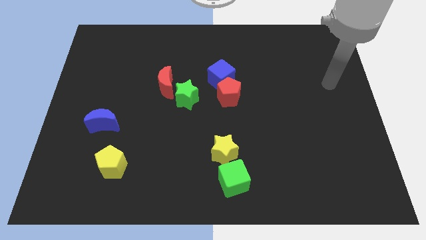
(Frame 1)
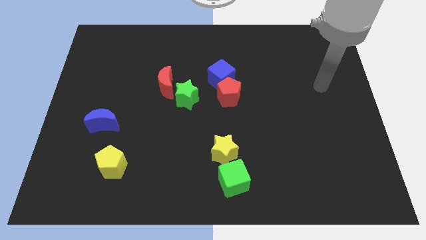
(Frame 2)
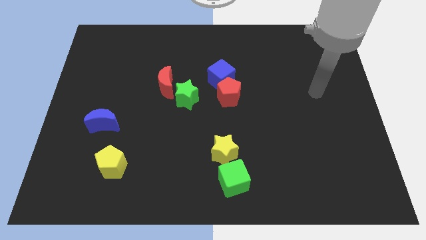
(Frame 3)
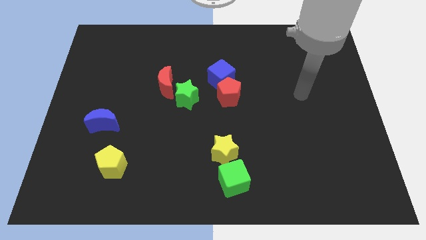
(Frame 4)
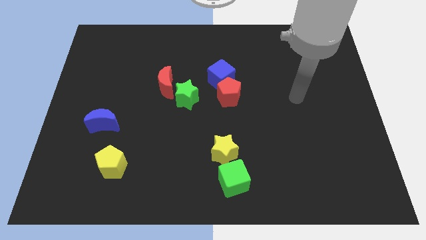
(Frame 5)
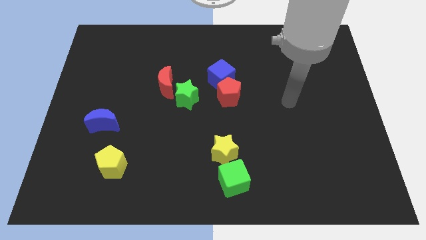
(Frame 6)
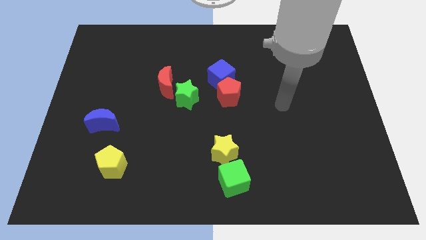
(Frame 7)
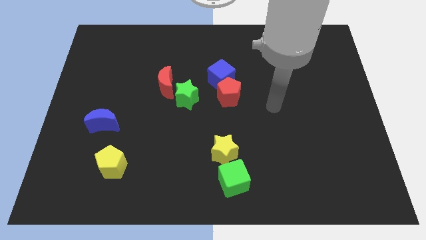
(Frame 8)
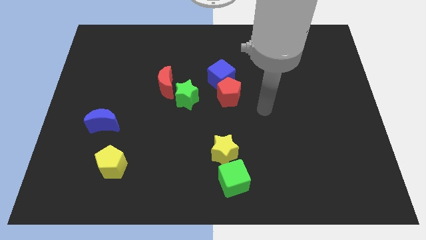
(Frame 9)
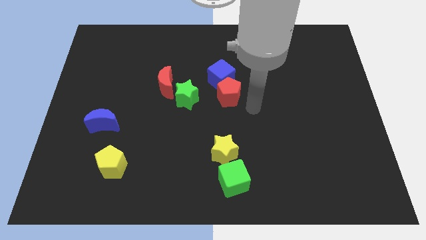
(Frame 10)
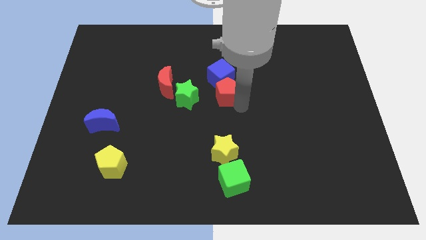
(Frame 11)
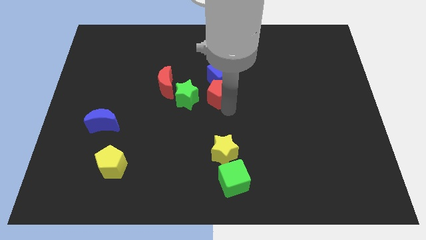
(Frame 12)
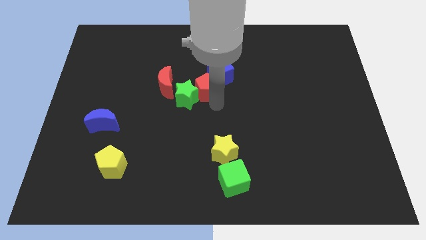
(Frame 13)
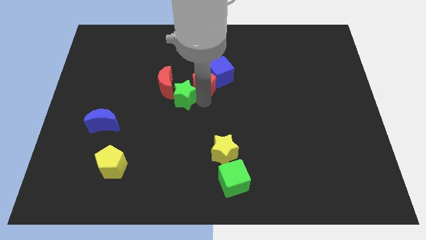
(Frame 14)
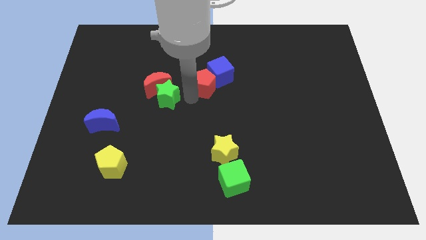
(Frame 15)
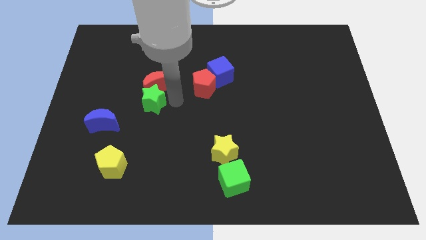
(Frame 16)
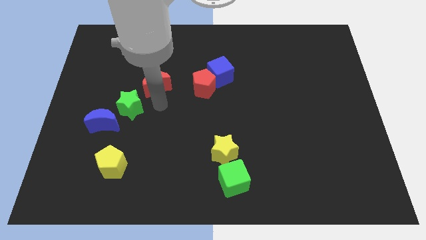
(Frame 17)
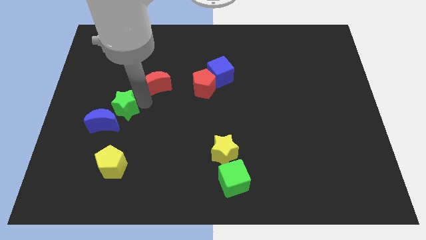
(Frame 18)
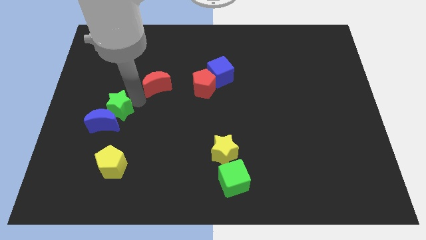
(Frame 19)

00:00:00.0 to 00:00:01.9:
pull the red moon apart from the green star

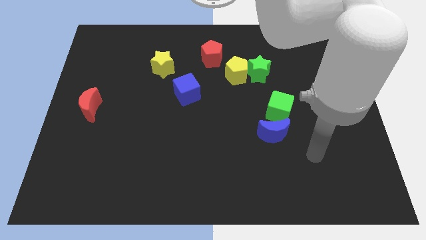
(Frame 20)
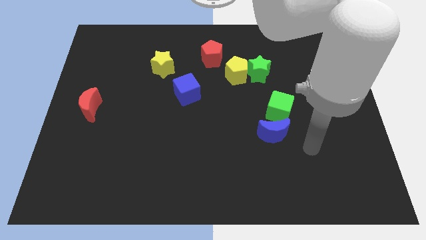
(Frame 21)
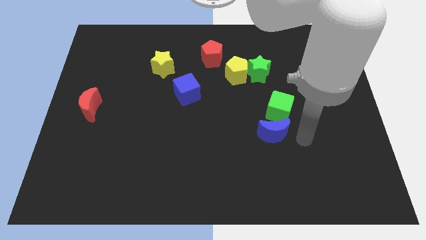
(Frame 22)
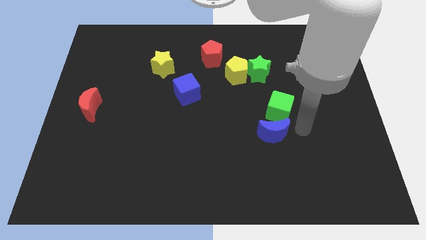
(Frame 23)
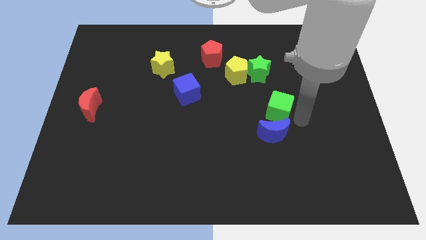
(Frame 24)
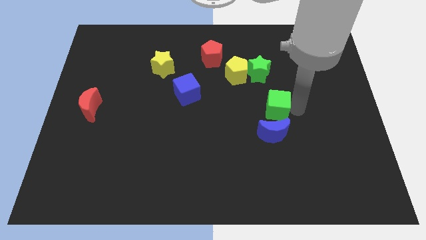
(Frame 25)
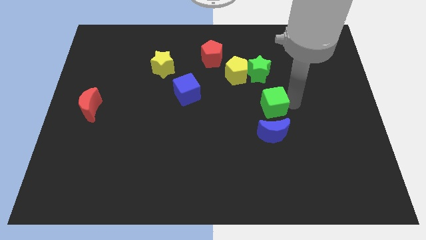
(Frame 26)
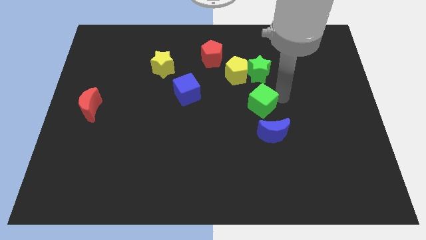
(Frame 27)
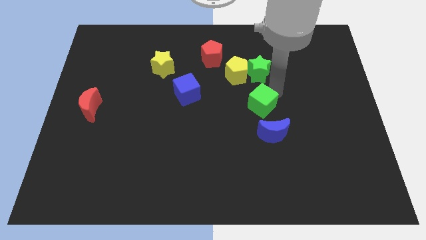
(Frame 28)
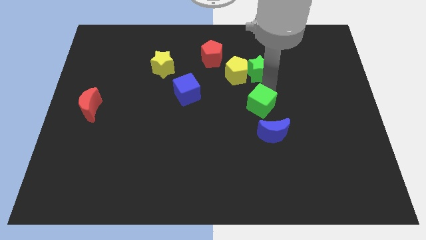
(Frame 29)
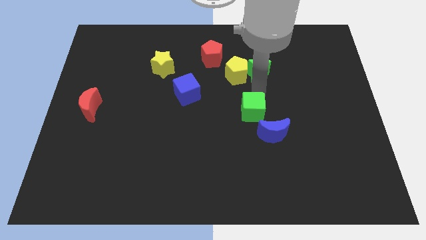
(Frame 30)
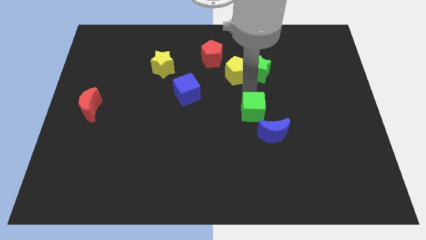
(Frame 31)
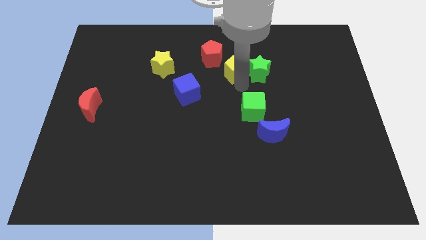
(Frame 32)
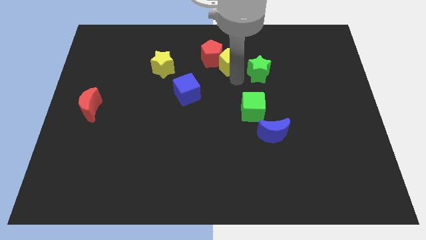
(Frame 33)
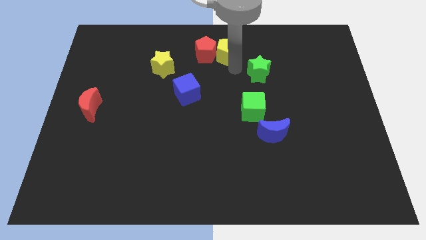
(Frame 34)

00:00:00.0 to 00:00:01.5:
pull the green star apart from the yellow pentagon

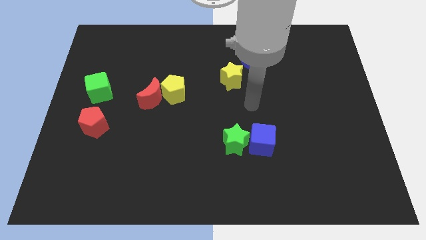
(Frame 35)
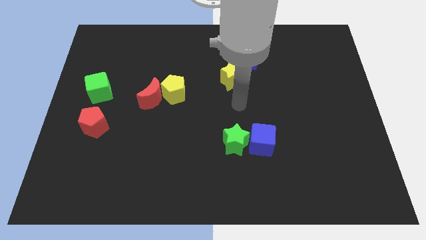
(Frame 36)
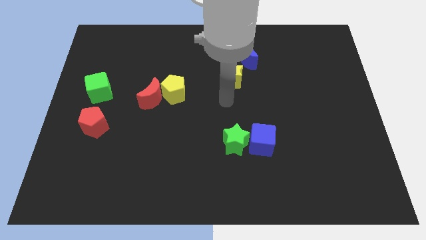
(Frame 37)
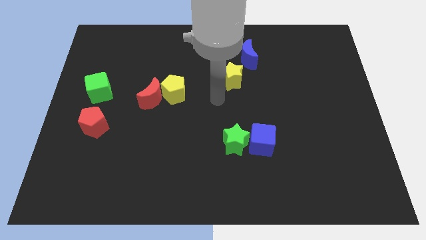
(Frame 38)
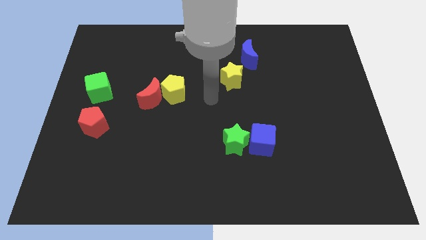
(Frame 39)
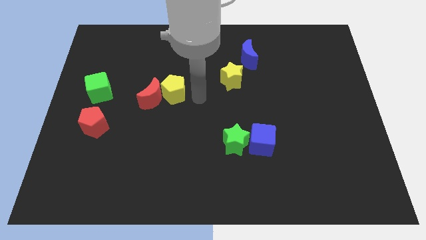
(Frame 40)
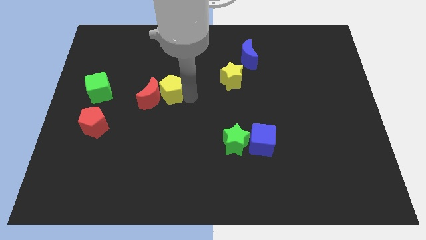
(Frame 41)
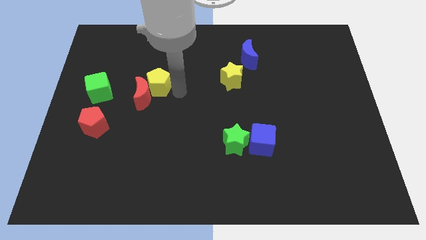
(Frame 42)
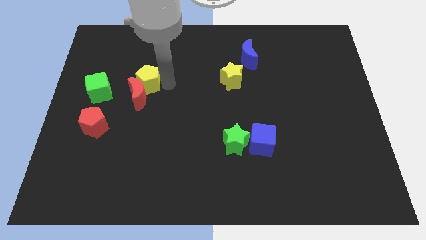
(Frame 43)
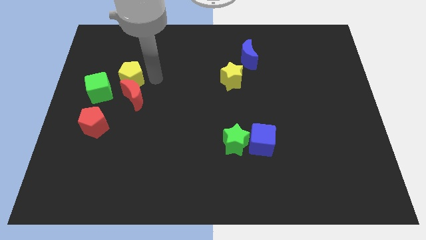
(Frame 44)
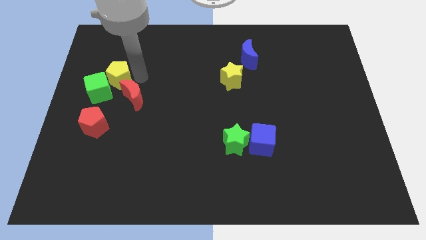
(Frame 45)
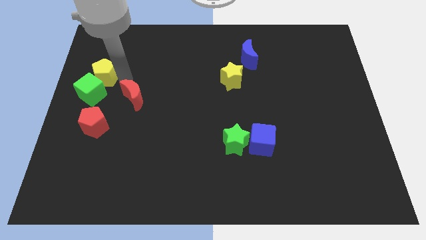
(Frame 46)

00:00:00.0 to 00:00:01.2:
move the red moon away from the yellow pentagon

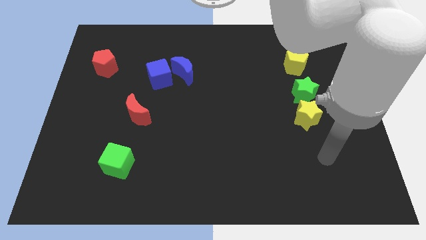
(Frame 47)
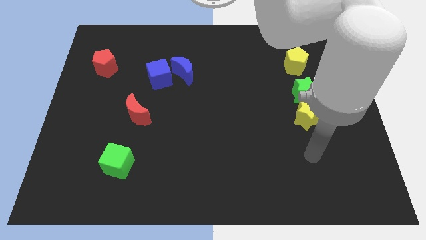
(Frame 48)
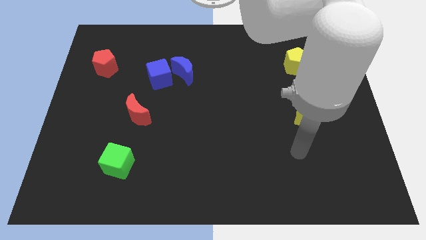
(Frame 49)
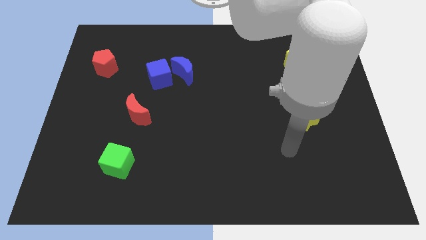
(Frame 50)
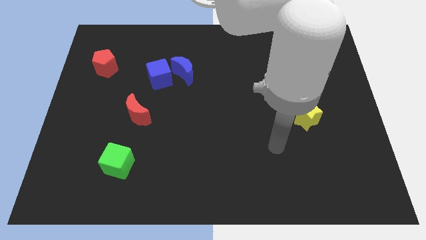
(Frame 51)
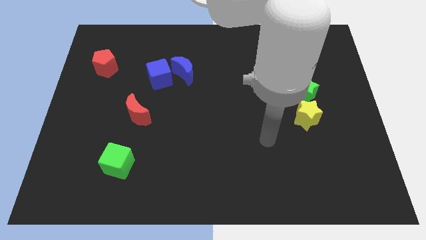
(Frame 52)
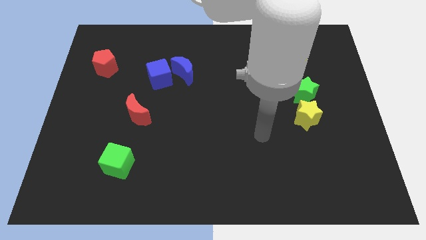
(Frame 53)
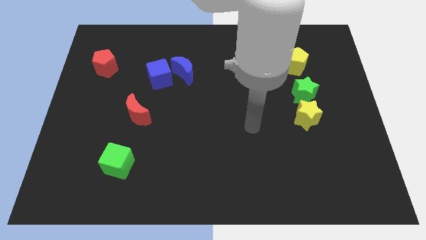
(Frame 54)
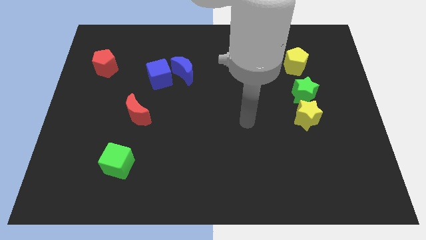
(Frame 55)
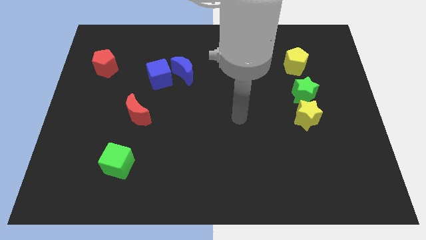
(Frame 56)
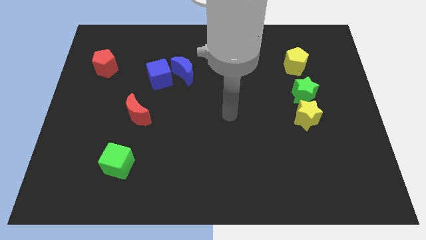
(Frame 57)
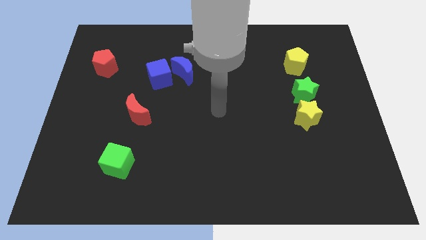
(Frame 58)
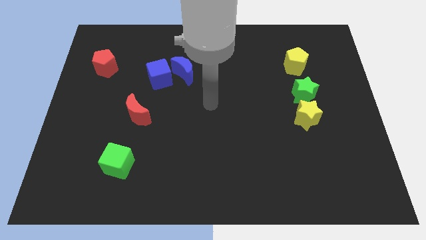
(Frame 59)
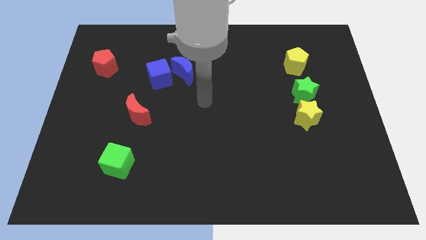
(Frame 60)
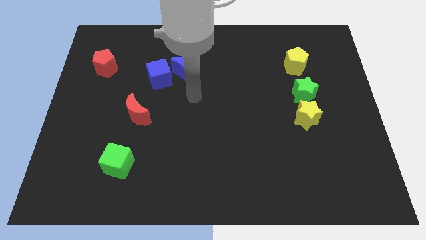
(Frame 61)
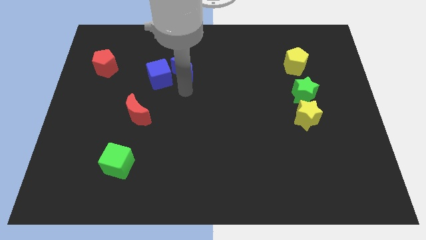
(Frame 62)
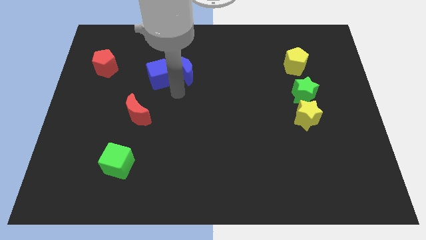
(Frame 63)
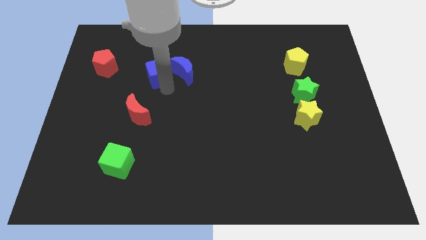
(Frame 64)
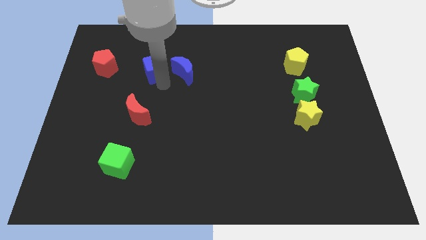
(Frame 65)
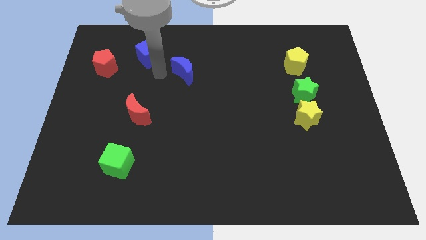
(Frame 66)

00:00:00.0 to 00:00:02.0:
separate the blue moon from the blue cube

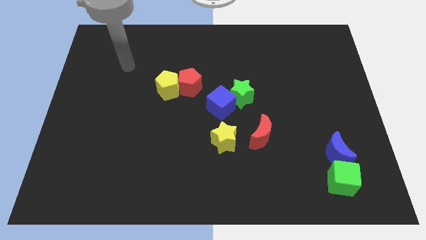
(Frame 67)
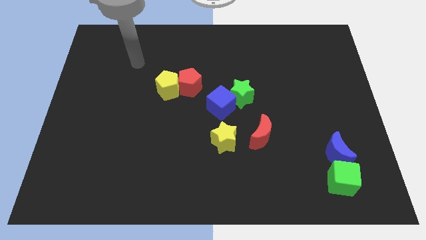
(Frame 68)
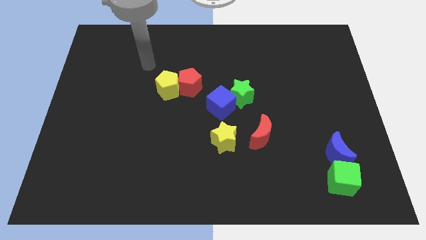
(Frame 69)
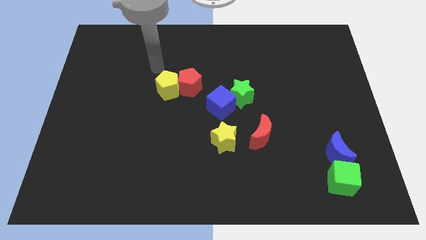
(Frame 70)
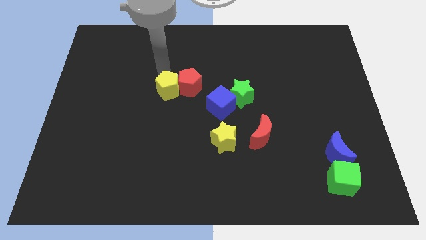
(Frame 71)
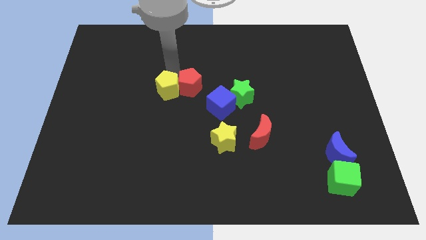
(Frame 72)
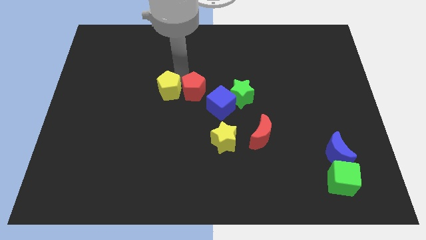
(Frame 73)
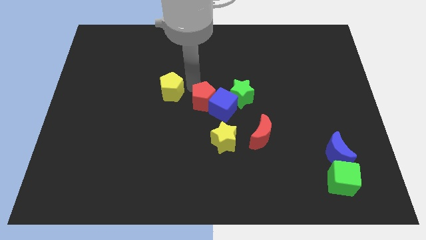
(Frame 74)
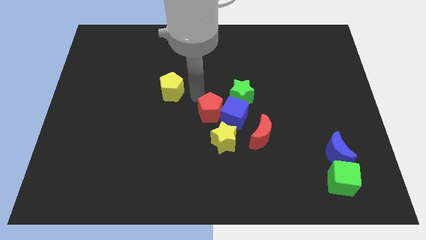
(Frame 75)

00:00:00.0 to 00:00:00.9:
separate the yellow pentagon from the red pentagon

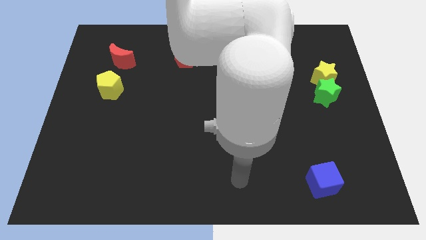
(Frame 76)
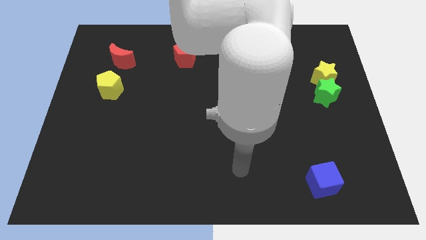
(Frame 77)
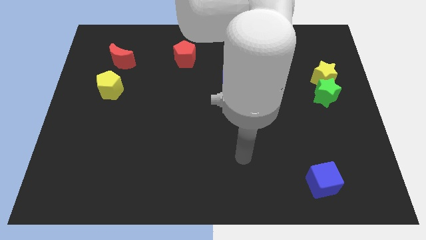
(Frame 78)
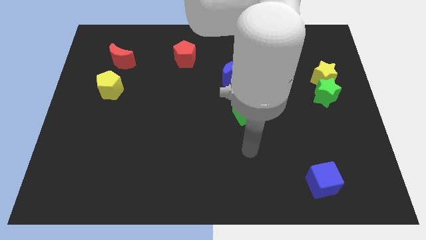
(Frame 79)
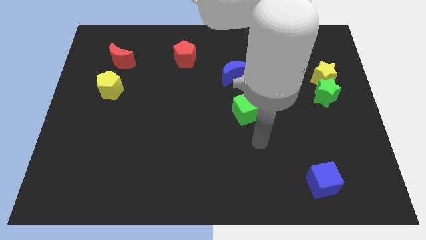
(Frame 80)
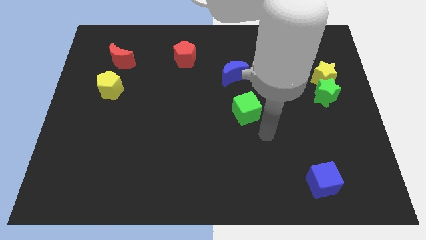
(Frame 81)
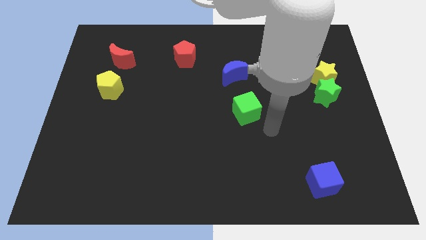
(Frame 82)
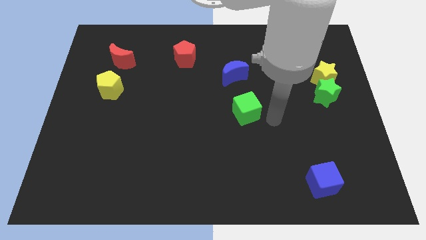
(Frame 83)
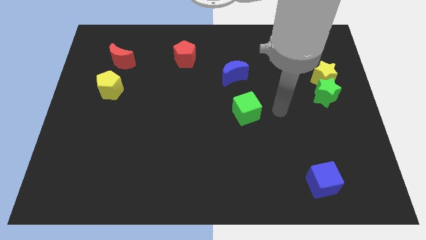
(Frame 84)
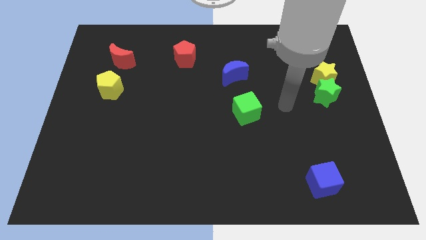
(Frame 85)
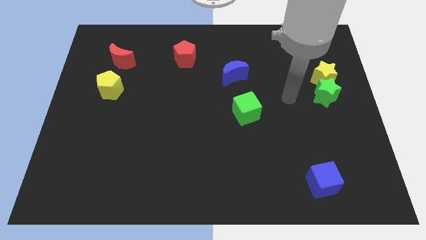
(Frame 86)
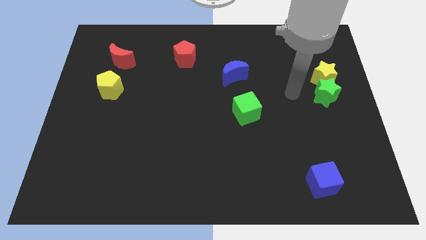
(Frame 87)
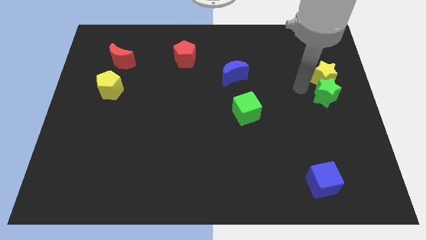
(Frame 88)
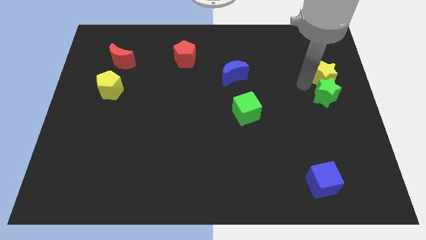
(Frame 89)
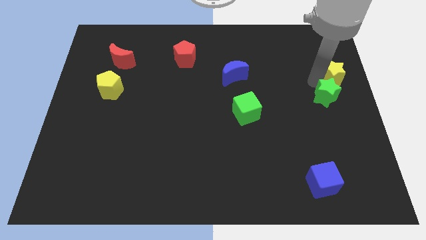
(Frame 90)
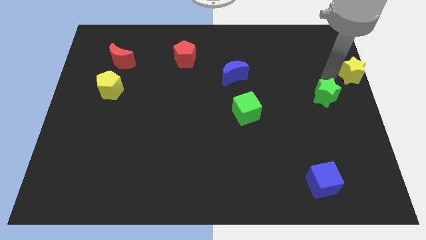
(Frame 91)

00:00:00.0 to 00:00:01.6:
pull the green star apart from the yellow star
